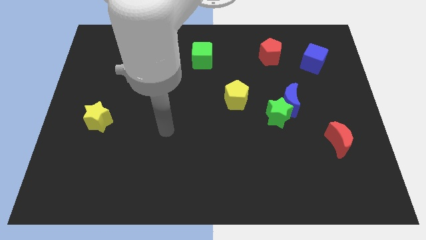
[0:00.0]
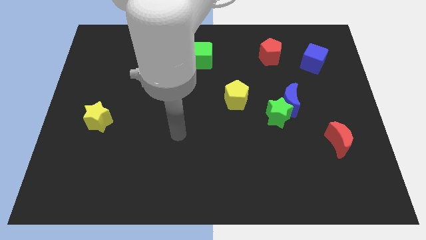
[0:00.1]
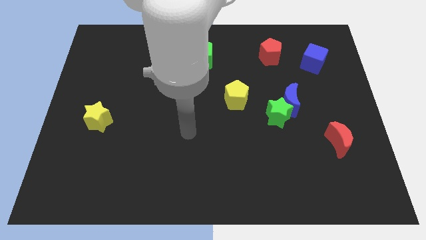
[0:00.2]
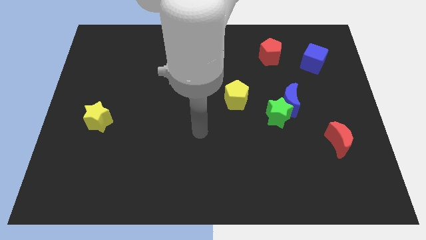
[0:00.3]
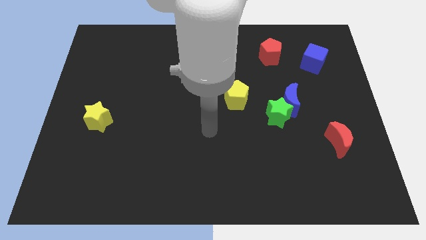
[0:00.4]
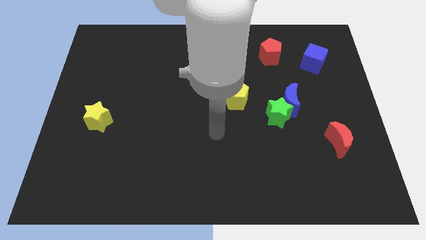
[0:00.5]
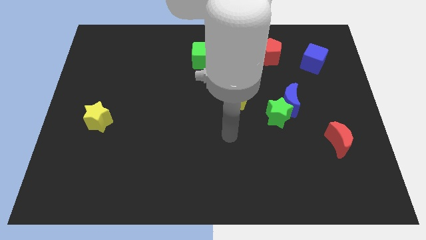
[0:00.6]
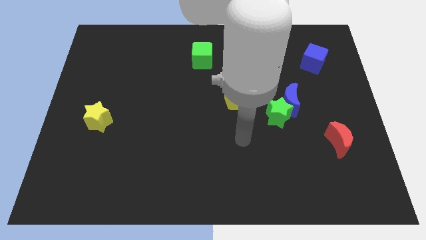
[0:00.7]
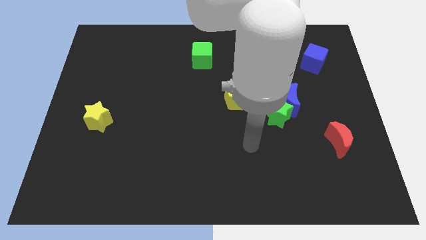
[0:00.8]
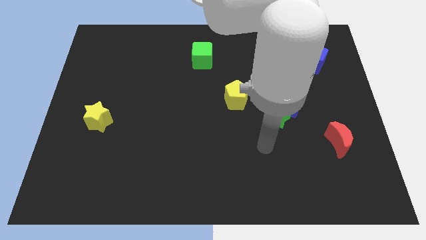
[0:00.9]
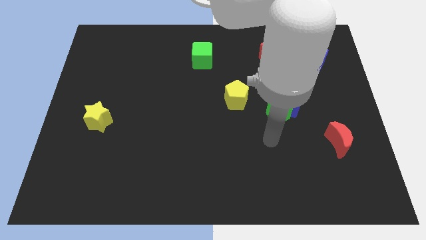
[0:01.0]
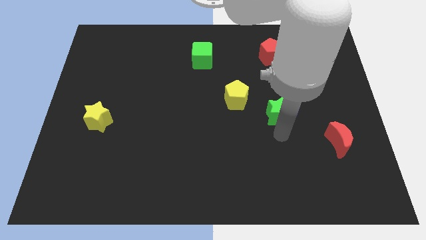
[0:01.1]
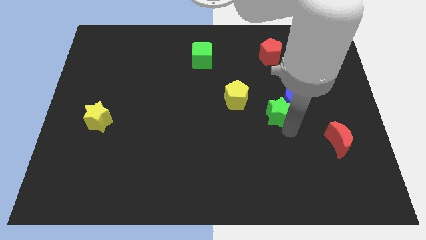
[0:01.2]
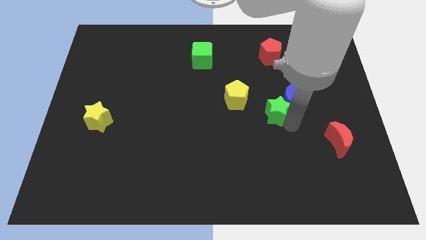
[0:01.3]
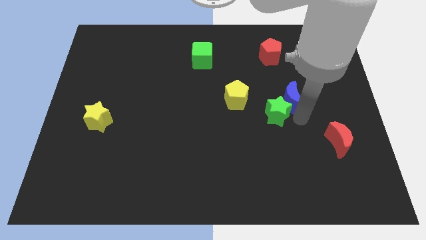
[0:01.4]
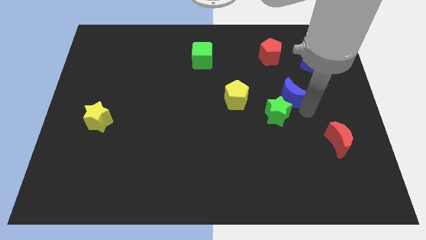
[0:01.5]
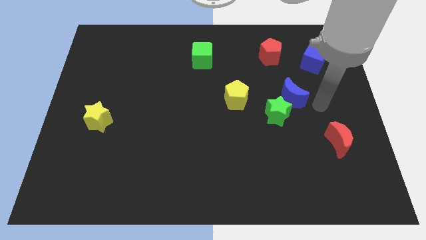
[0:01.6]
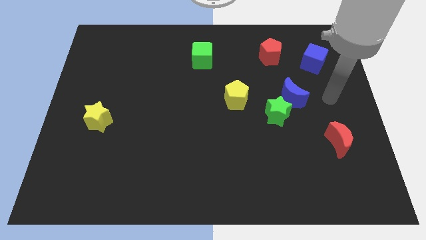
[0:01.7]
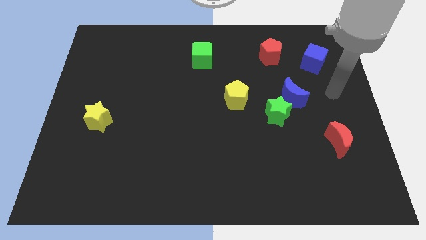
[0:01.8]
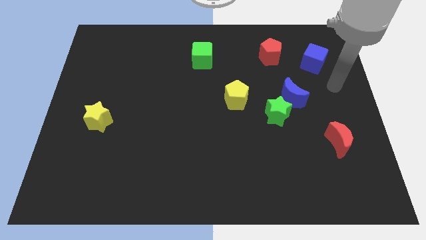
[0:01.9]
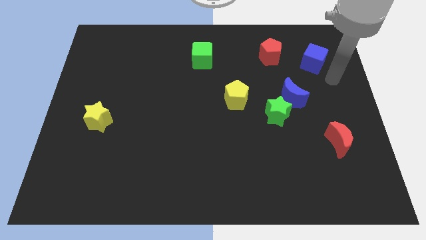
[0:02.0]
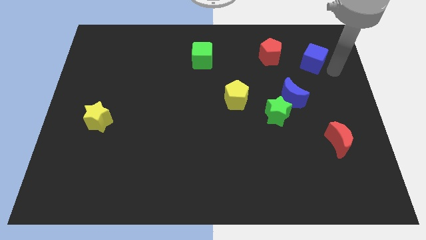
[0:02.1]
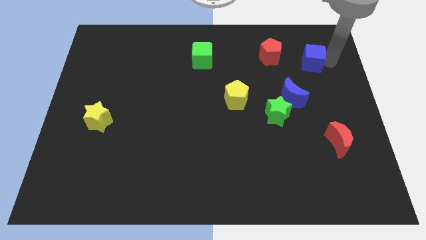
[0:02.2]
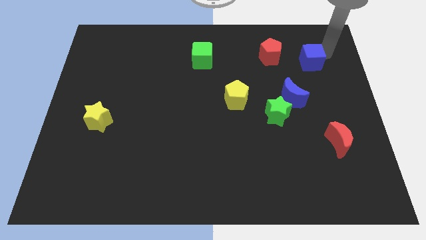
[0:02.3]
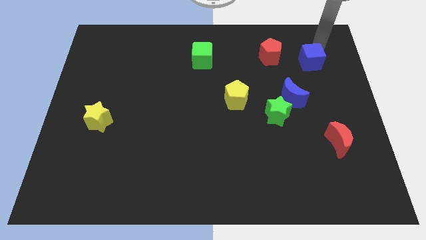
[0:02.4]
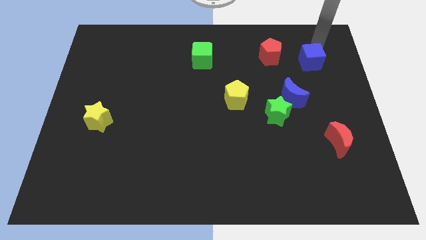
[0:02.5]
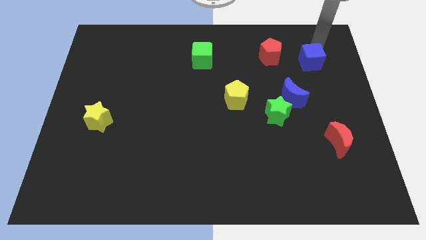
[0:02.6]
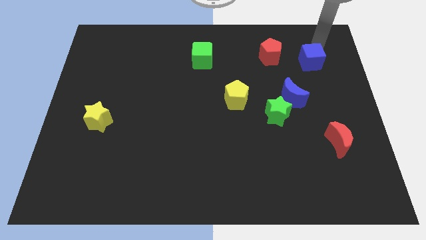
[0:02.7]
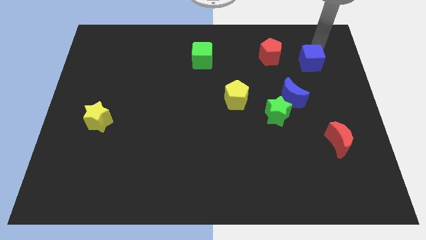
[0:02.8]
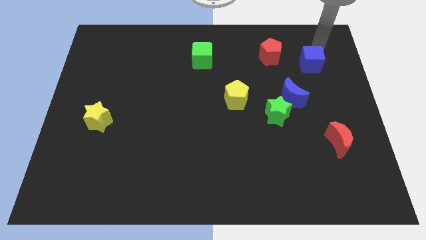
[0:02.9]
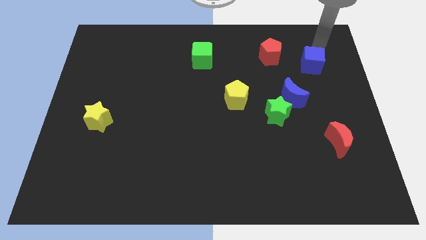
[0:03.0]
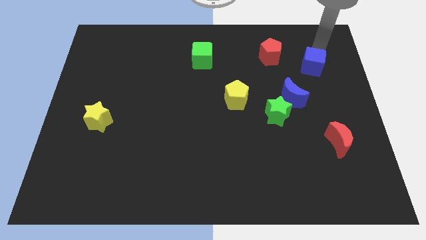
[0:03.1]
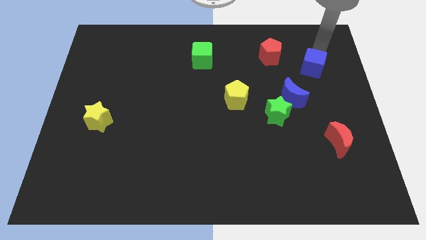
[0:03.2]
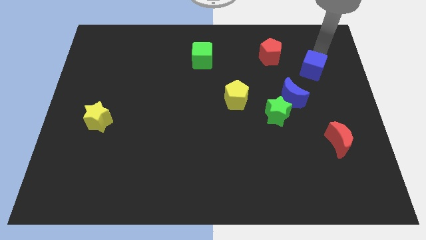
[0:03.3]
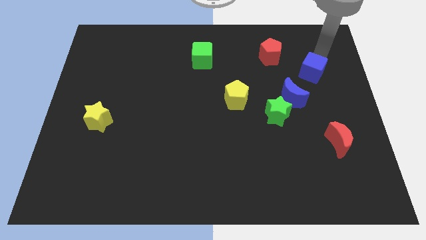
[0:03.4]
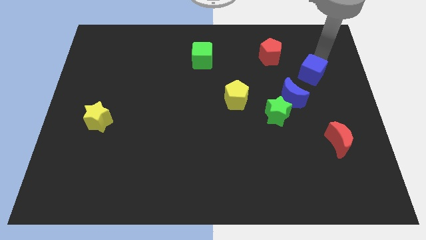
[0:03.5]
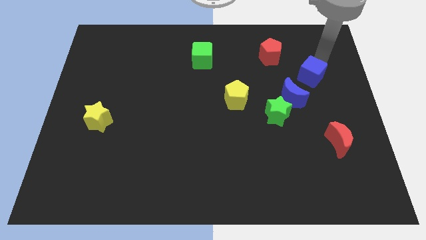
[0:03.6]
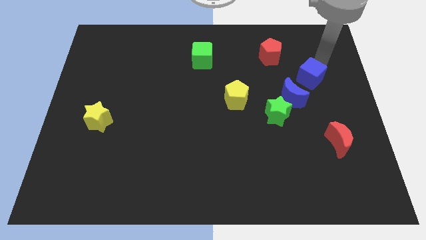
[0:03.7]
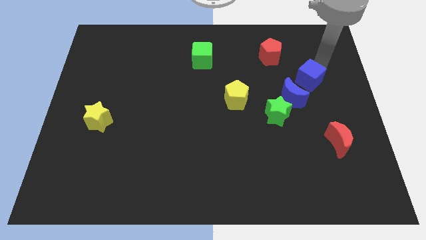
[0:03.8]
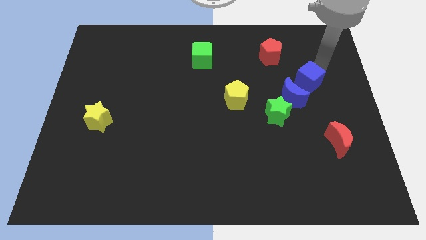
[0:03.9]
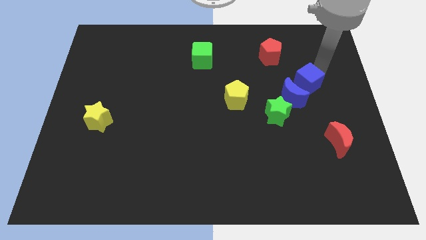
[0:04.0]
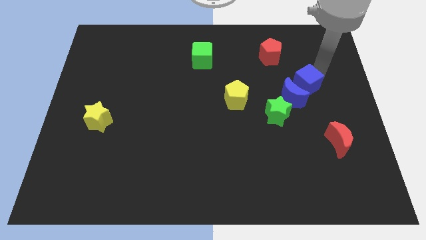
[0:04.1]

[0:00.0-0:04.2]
slide the blue cube downwards and to the left a bit

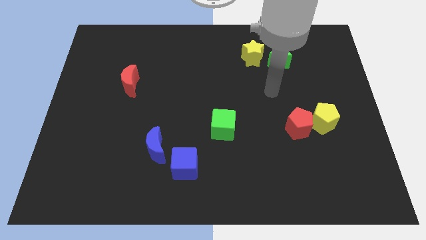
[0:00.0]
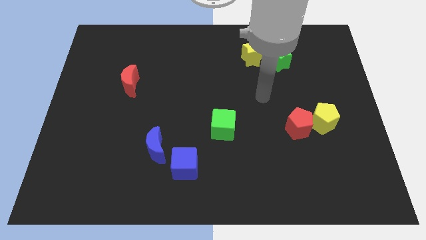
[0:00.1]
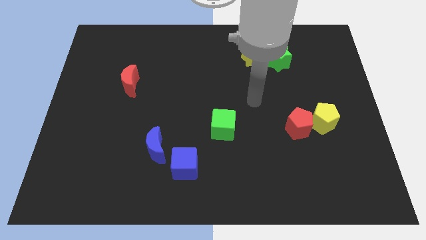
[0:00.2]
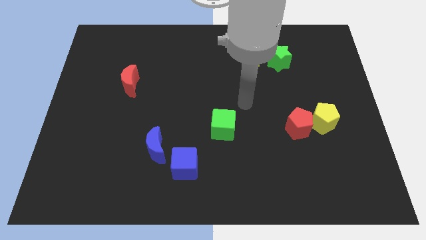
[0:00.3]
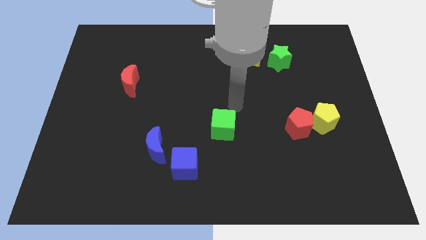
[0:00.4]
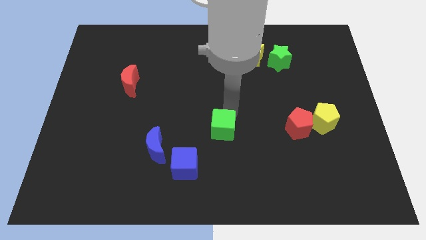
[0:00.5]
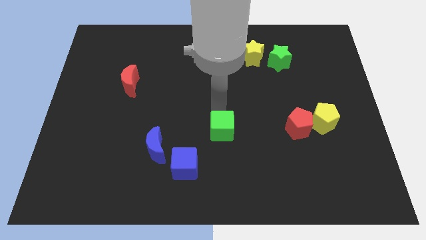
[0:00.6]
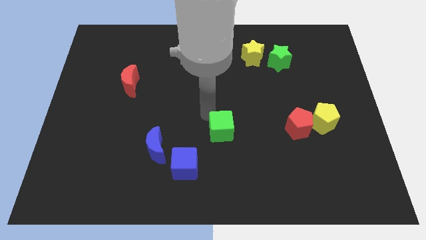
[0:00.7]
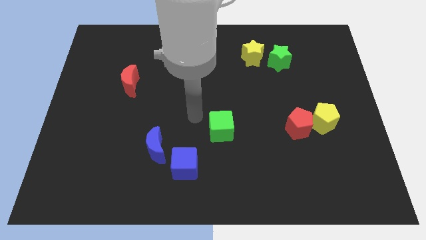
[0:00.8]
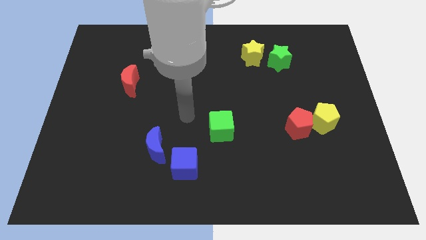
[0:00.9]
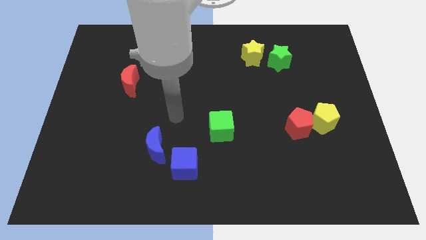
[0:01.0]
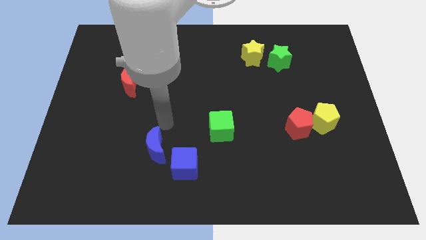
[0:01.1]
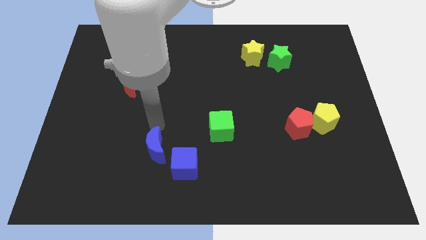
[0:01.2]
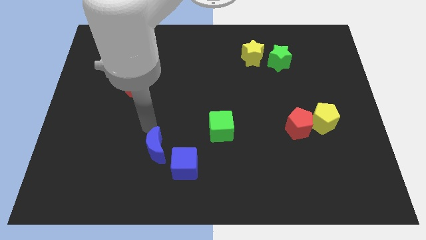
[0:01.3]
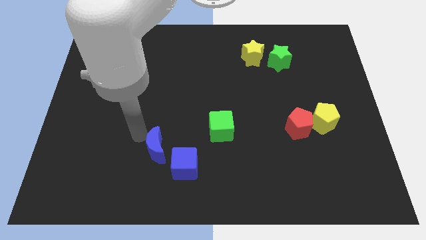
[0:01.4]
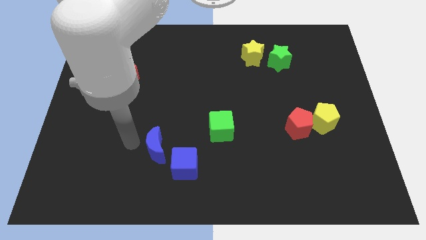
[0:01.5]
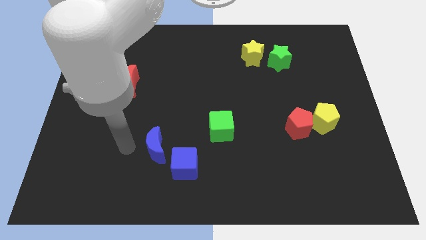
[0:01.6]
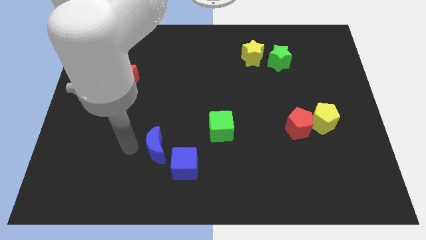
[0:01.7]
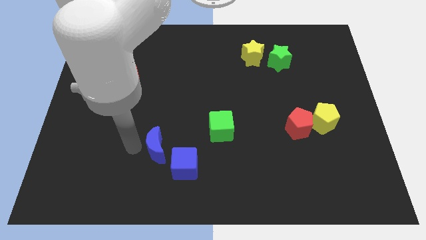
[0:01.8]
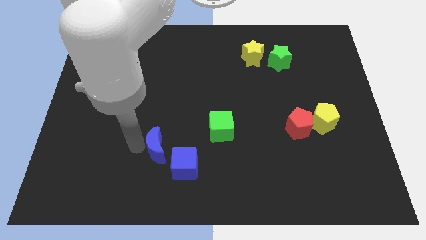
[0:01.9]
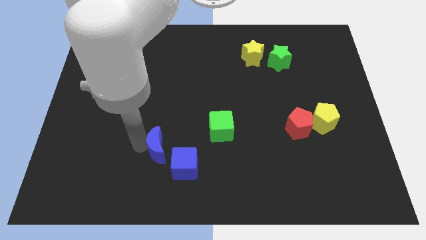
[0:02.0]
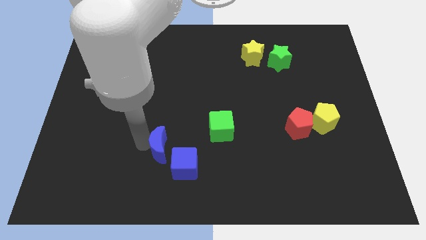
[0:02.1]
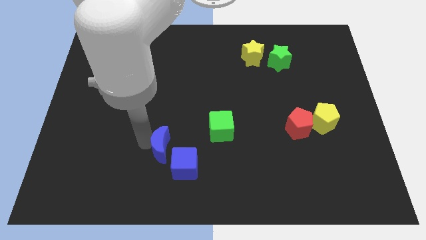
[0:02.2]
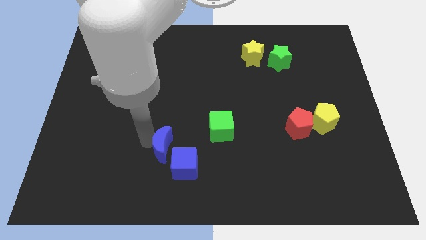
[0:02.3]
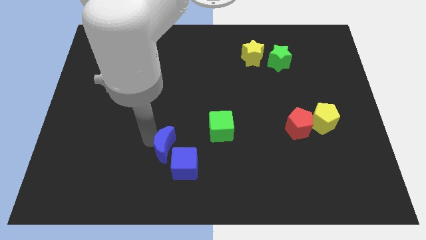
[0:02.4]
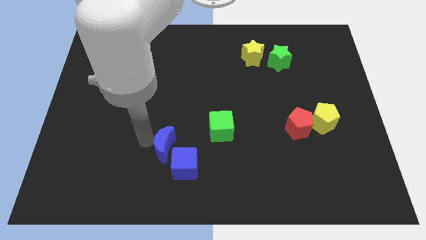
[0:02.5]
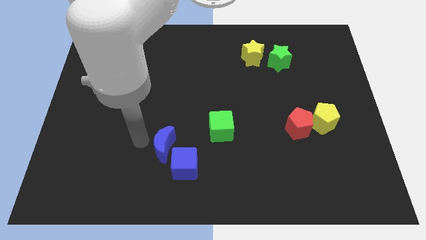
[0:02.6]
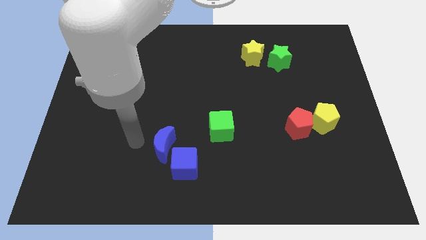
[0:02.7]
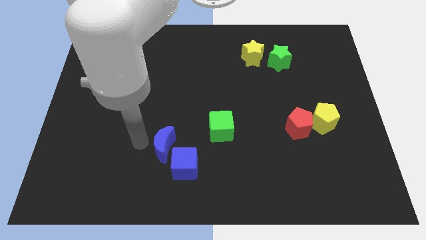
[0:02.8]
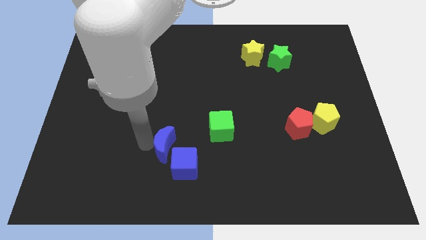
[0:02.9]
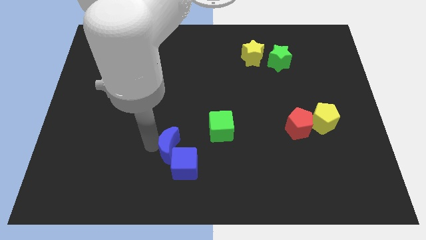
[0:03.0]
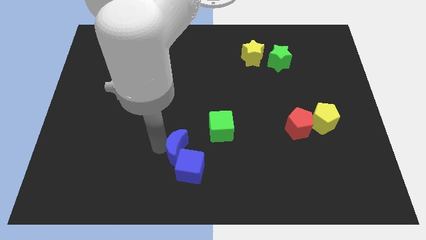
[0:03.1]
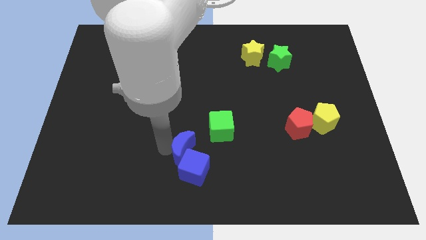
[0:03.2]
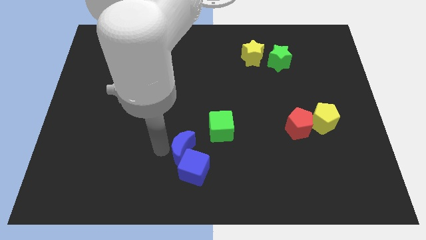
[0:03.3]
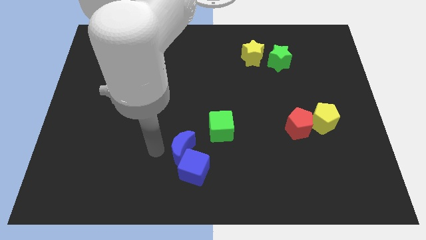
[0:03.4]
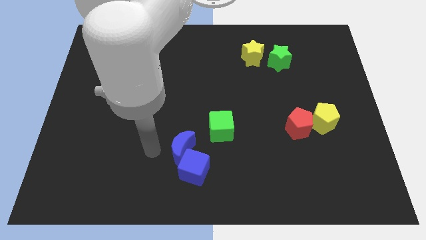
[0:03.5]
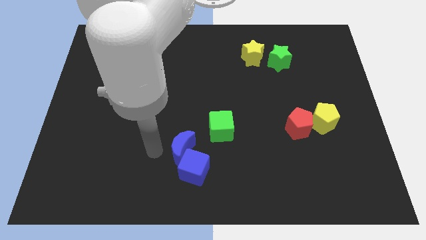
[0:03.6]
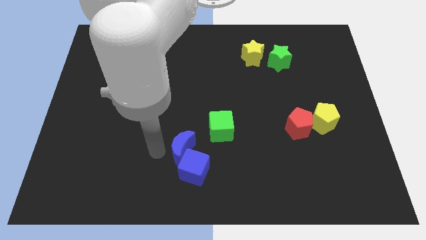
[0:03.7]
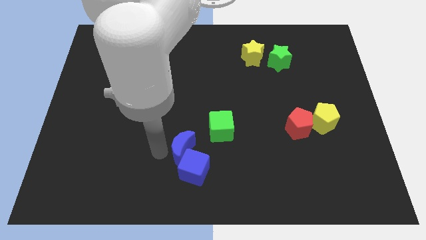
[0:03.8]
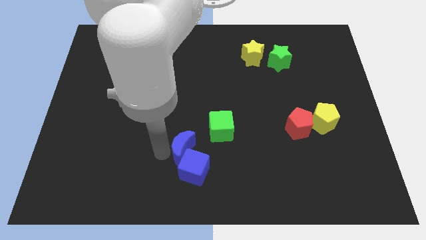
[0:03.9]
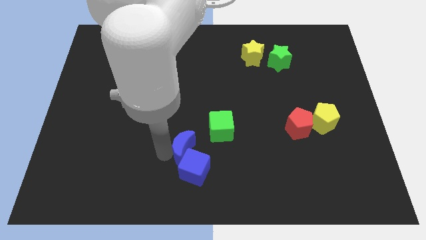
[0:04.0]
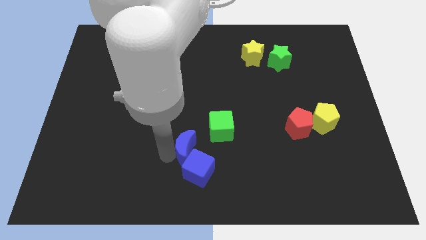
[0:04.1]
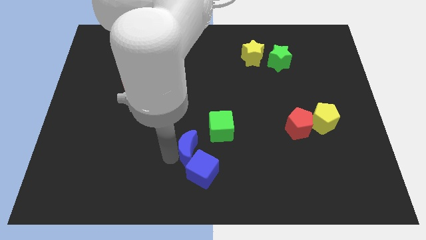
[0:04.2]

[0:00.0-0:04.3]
slightly slide the blue moon right
